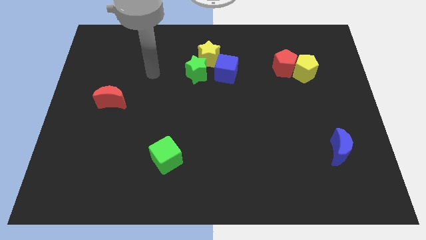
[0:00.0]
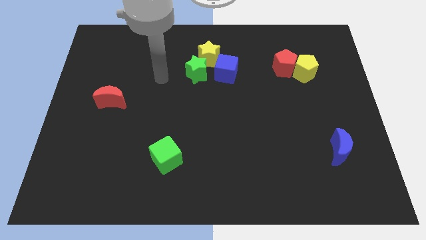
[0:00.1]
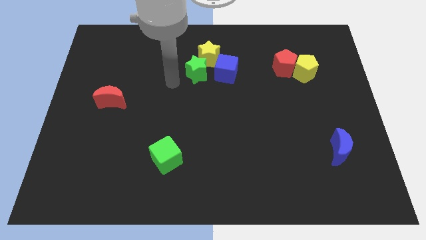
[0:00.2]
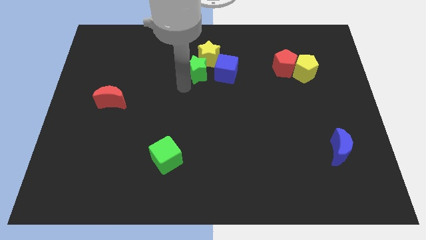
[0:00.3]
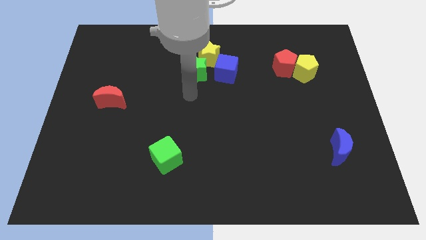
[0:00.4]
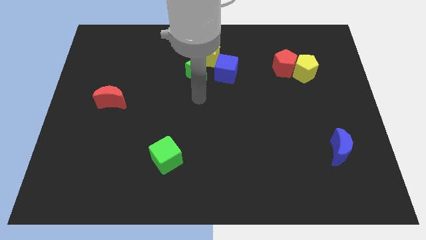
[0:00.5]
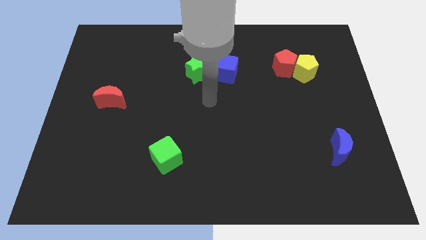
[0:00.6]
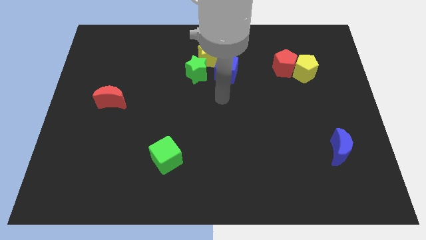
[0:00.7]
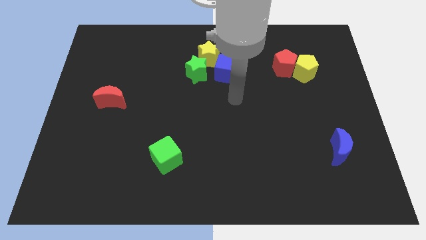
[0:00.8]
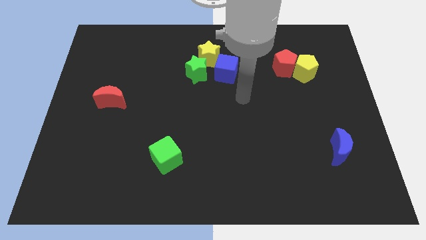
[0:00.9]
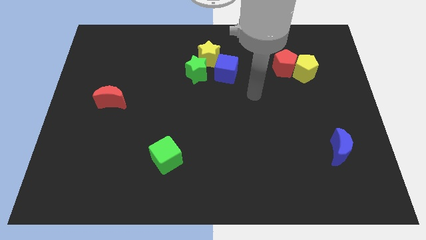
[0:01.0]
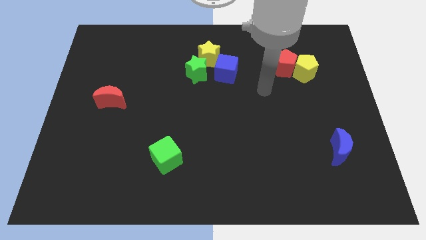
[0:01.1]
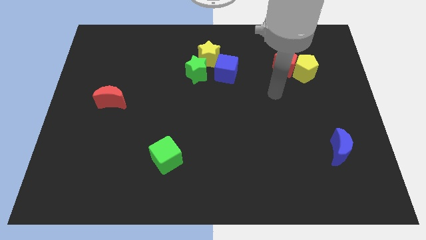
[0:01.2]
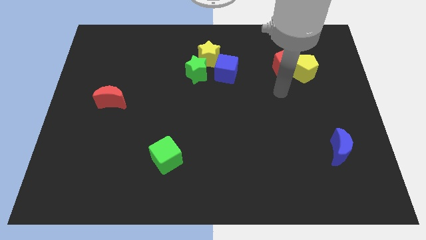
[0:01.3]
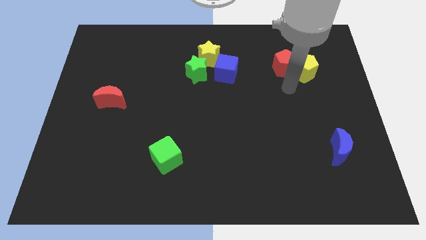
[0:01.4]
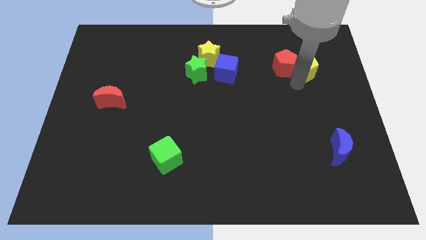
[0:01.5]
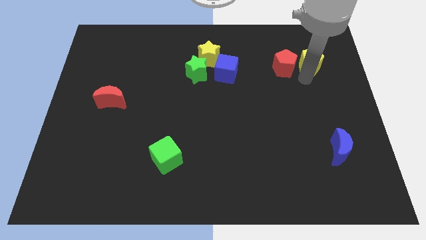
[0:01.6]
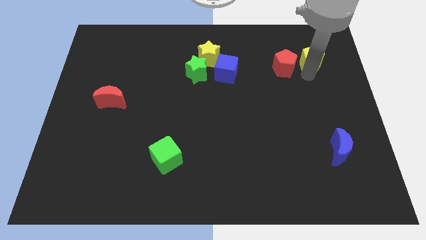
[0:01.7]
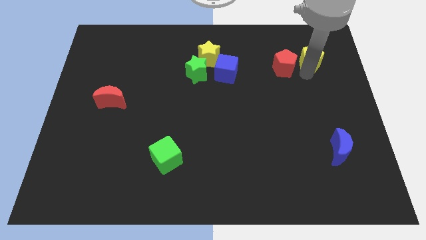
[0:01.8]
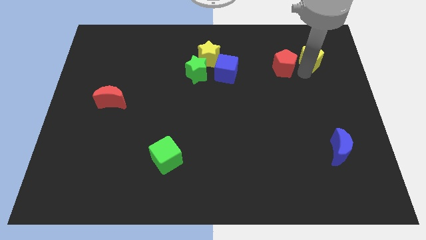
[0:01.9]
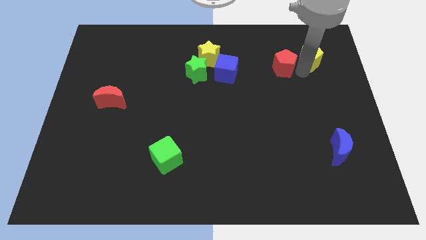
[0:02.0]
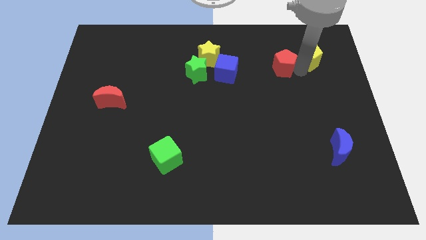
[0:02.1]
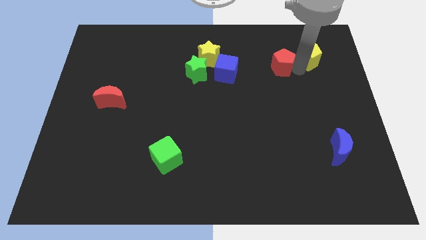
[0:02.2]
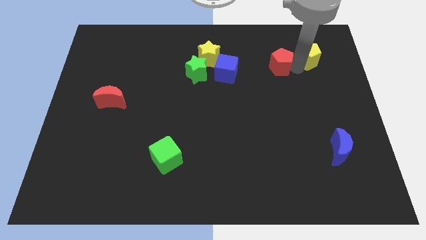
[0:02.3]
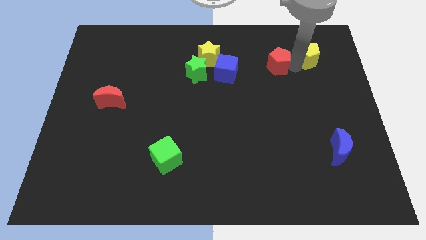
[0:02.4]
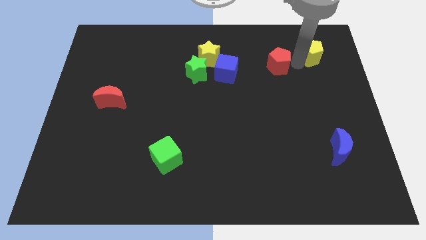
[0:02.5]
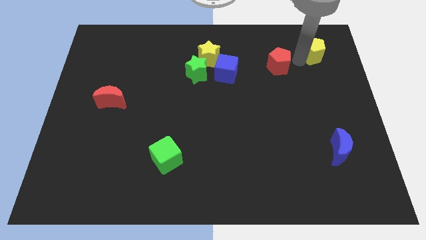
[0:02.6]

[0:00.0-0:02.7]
move the red pentagon away from the yellow pentagon

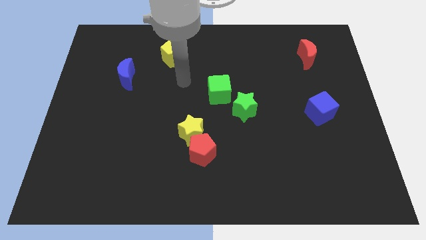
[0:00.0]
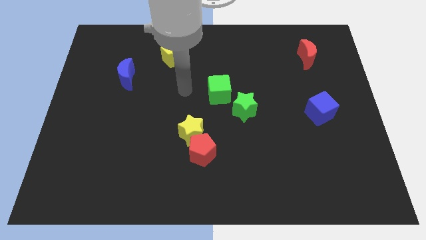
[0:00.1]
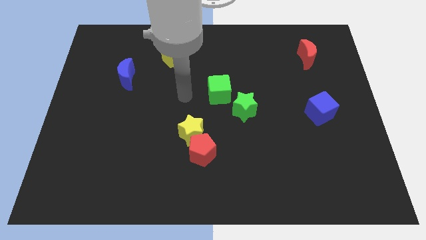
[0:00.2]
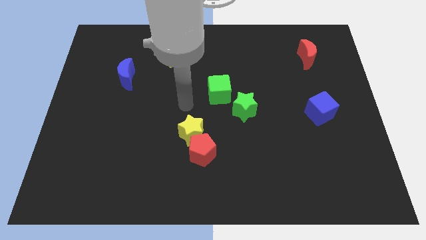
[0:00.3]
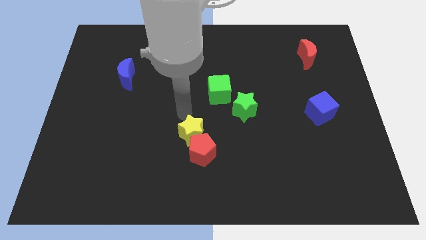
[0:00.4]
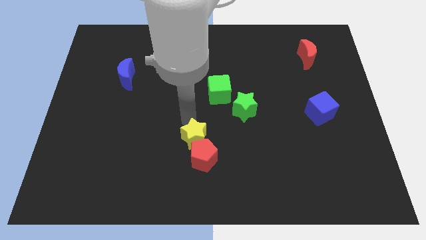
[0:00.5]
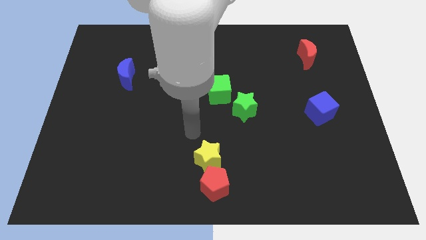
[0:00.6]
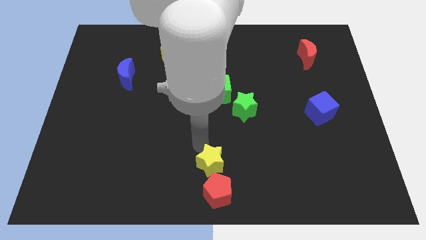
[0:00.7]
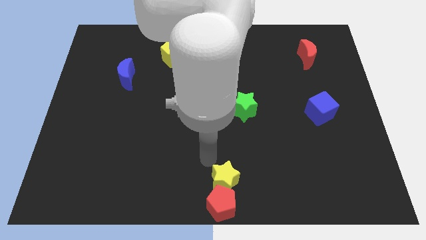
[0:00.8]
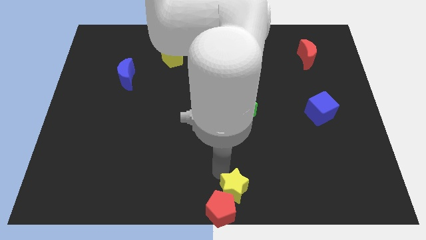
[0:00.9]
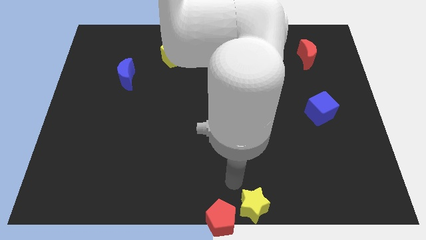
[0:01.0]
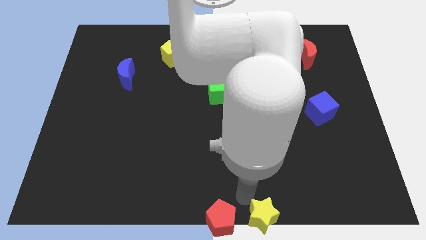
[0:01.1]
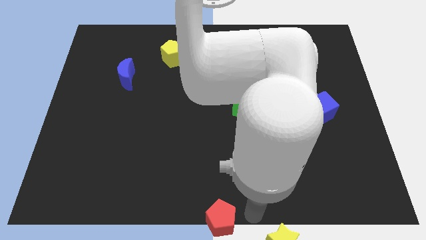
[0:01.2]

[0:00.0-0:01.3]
move the red pentagon away from the yellow star

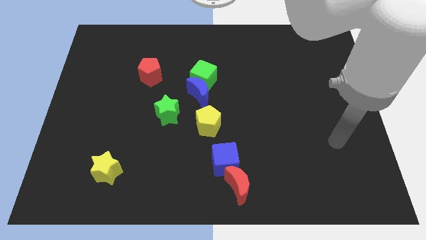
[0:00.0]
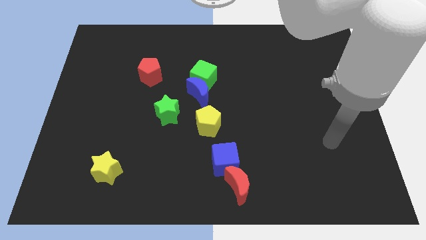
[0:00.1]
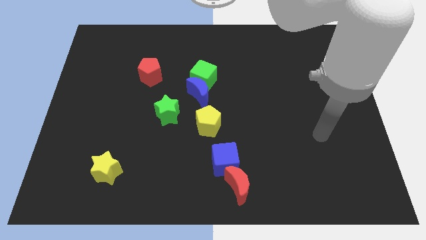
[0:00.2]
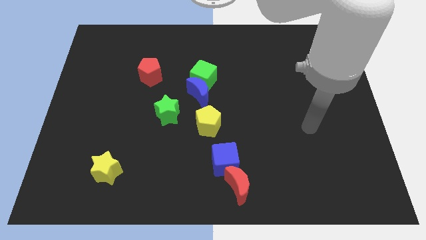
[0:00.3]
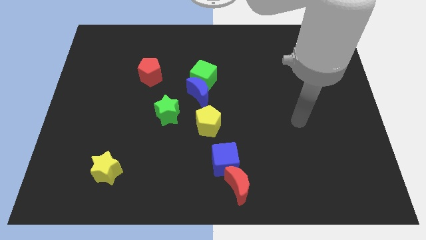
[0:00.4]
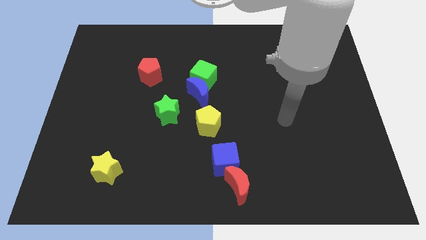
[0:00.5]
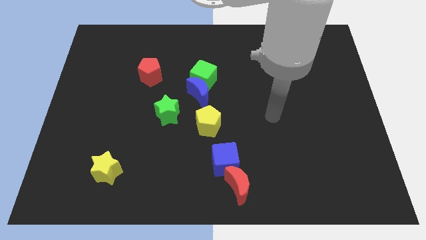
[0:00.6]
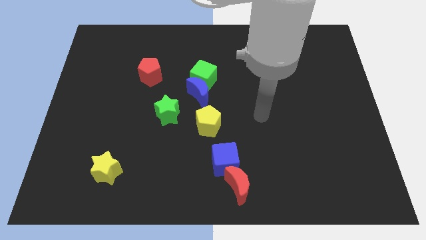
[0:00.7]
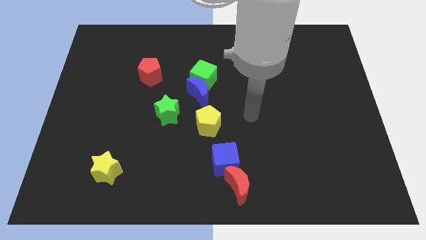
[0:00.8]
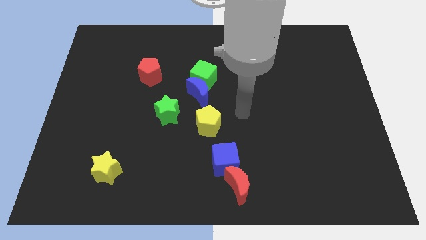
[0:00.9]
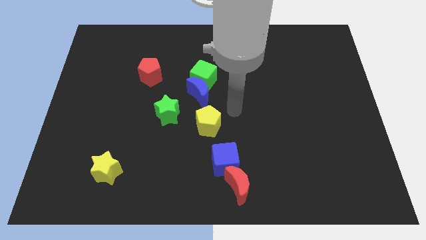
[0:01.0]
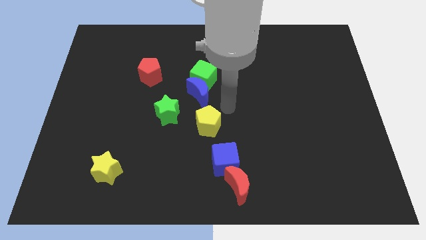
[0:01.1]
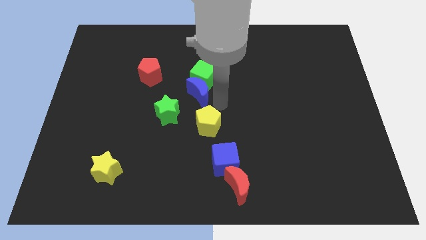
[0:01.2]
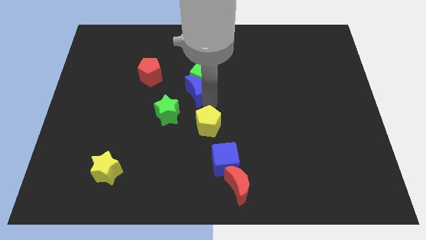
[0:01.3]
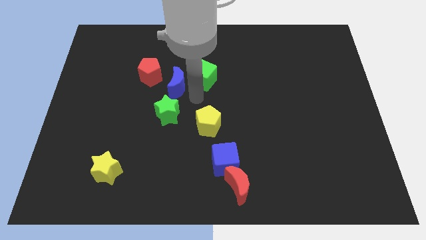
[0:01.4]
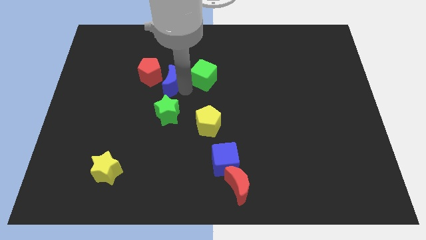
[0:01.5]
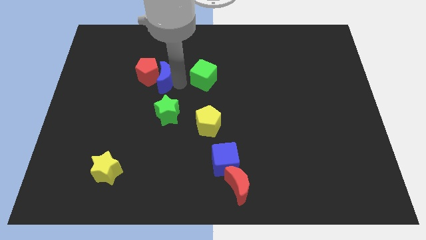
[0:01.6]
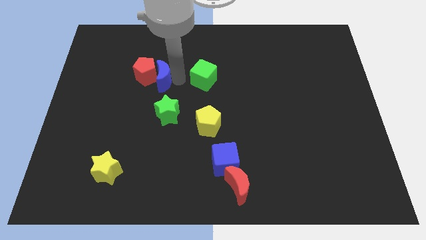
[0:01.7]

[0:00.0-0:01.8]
move the green cube away from the blue moon

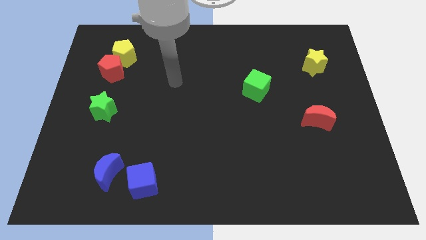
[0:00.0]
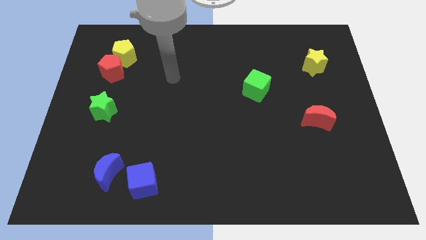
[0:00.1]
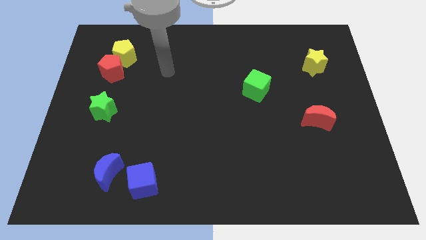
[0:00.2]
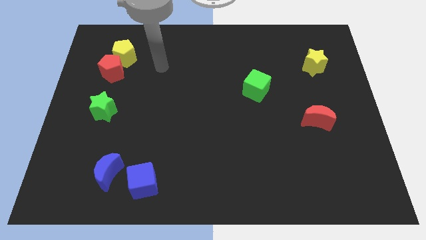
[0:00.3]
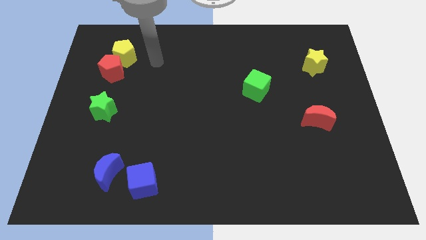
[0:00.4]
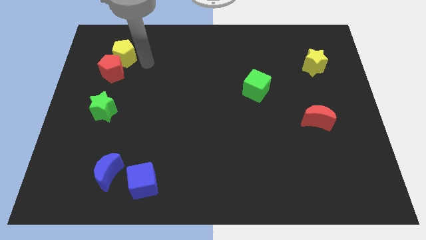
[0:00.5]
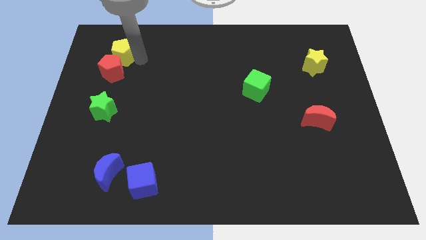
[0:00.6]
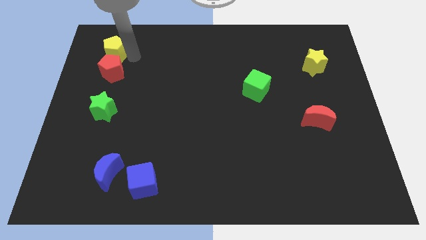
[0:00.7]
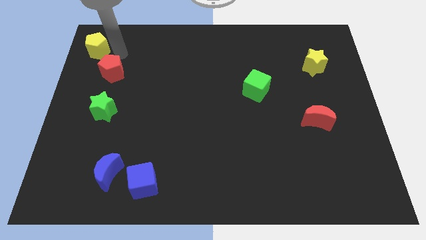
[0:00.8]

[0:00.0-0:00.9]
pull the red pentagon apart from the yellow pentagon

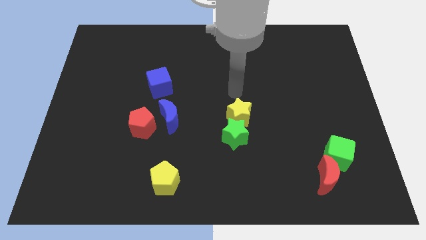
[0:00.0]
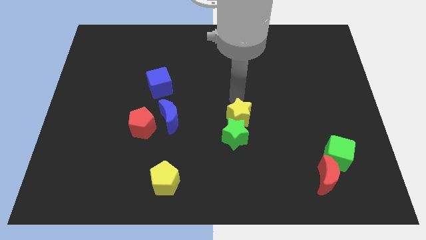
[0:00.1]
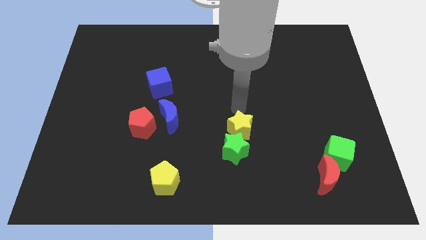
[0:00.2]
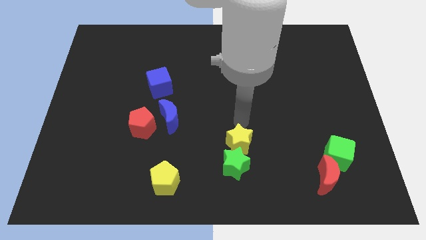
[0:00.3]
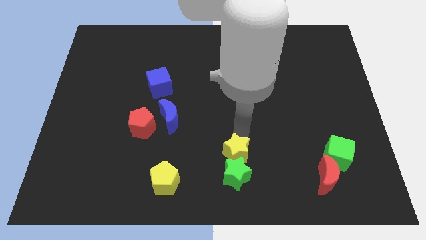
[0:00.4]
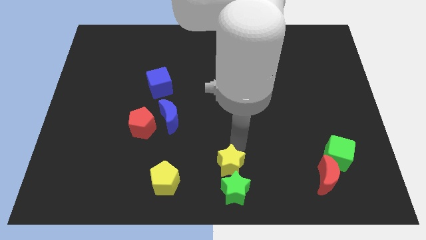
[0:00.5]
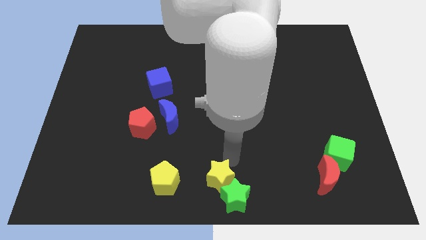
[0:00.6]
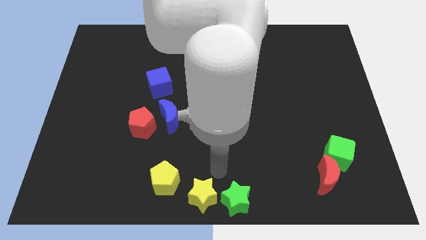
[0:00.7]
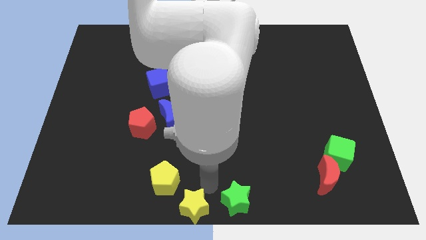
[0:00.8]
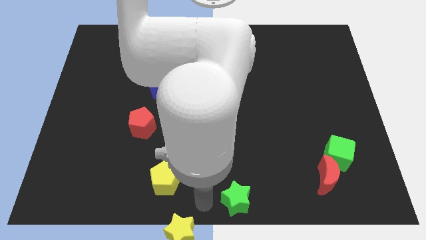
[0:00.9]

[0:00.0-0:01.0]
pull the green star apart from the yellow star

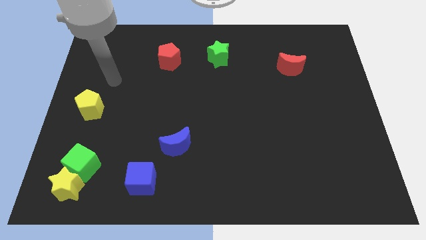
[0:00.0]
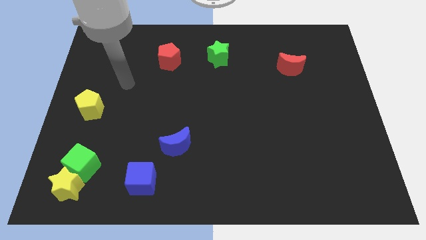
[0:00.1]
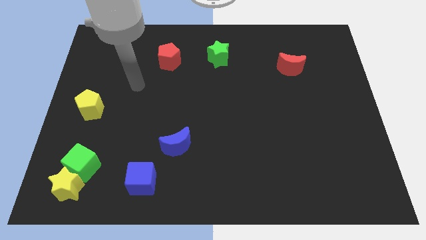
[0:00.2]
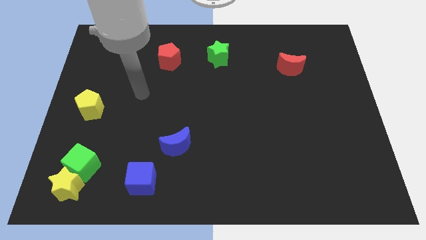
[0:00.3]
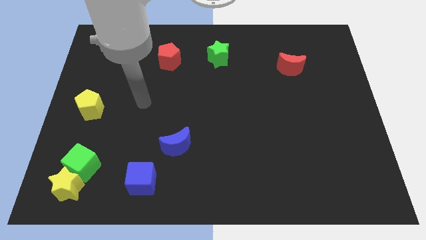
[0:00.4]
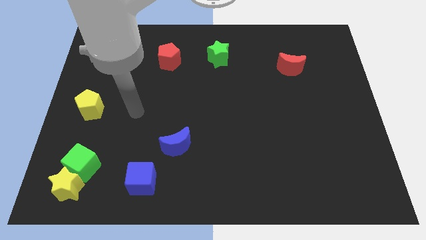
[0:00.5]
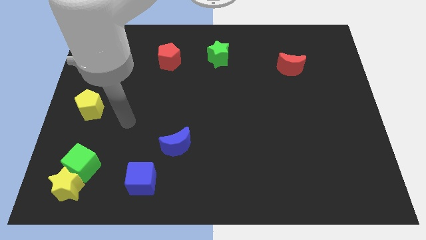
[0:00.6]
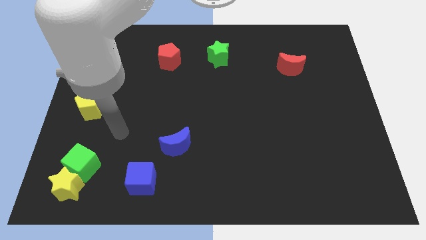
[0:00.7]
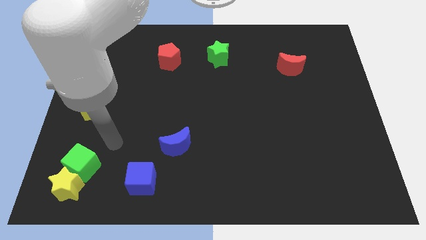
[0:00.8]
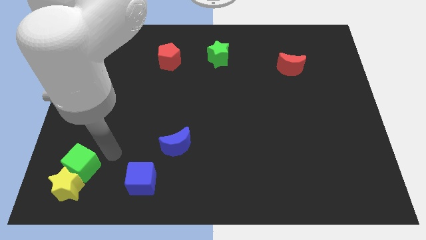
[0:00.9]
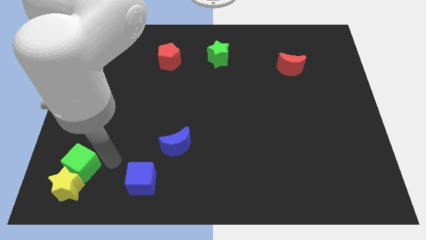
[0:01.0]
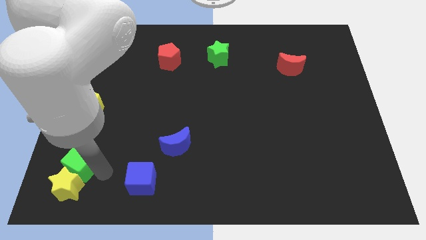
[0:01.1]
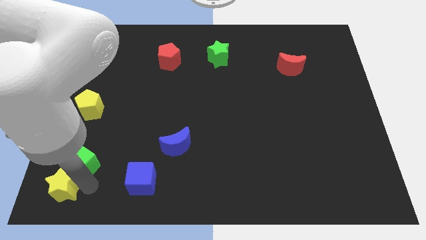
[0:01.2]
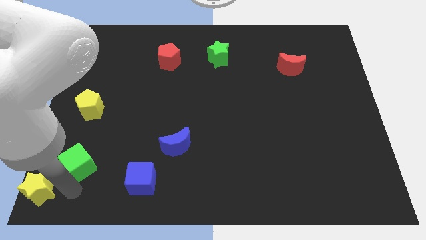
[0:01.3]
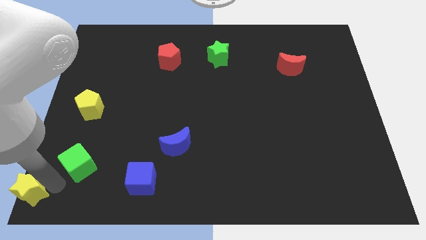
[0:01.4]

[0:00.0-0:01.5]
pull the green cube apart from the yellow star

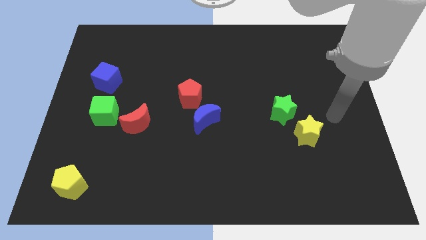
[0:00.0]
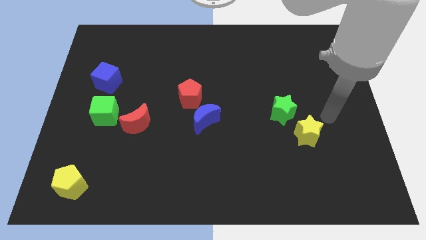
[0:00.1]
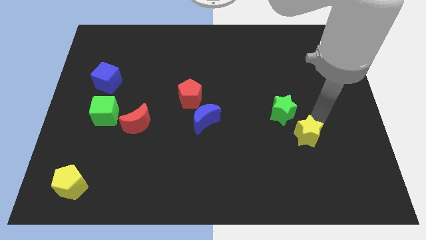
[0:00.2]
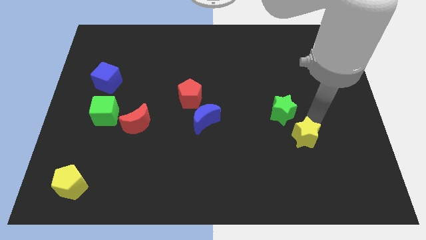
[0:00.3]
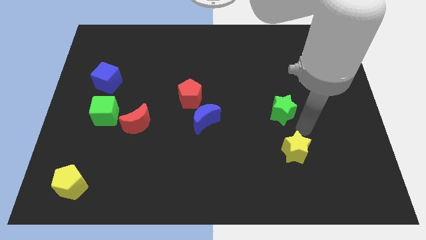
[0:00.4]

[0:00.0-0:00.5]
separate the green star from the yellow star
